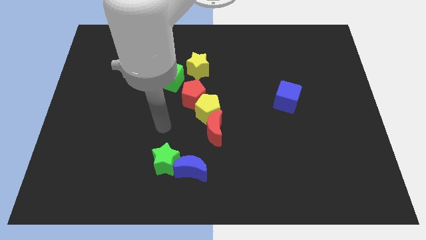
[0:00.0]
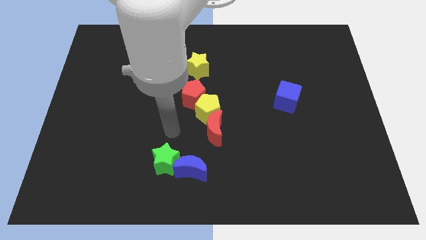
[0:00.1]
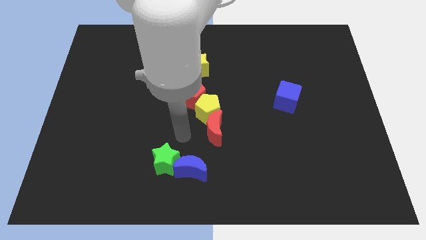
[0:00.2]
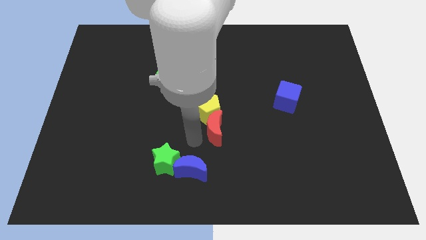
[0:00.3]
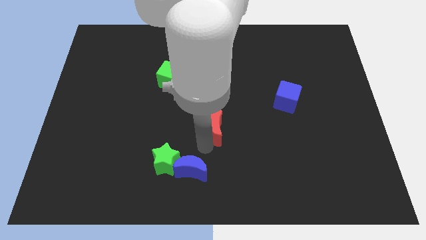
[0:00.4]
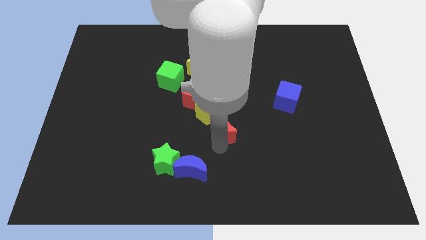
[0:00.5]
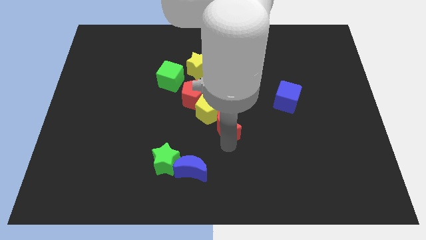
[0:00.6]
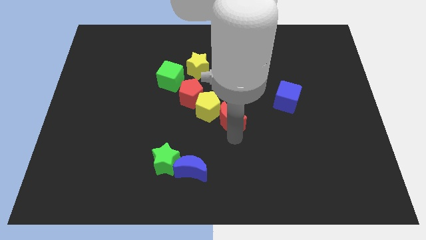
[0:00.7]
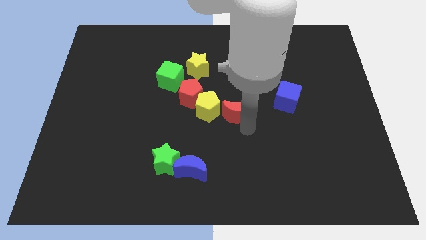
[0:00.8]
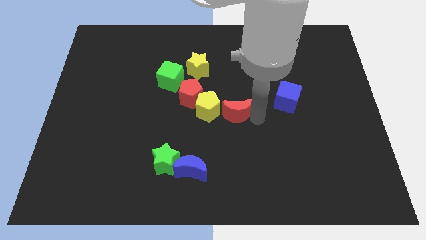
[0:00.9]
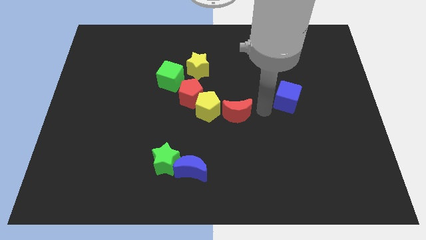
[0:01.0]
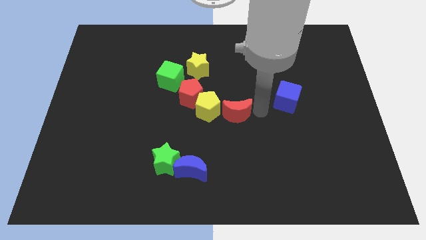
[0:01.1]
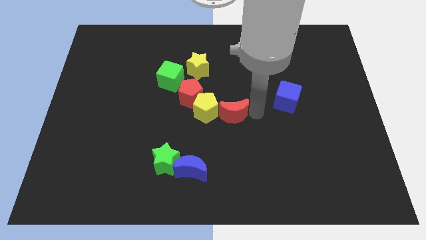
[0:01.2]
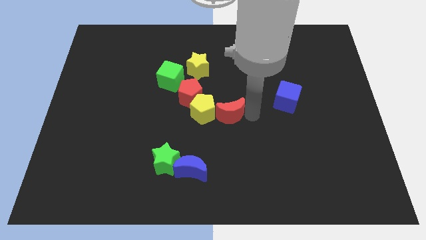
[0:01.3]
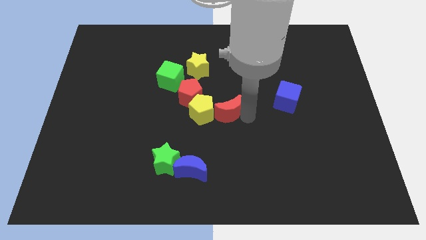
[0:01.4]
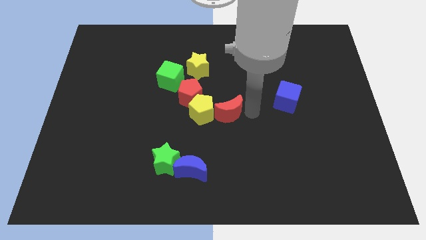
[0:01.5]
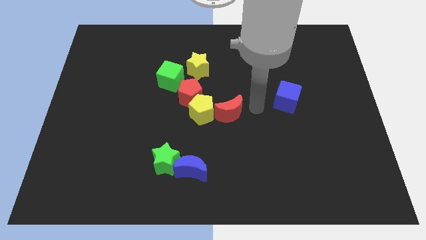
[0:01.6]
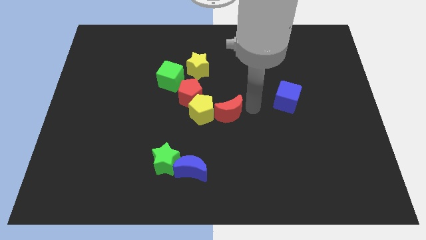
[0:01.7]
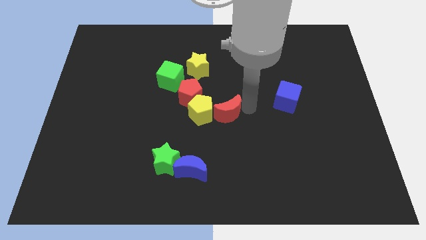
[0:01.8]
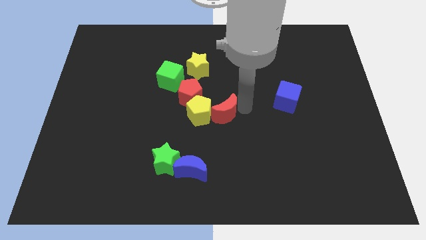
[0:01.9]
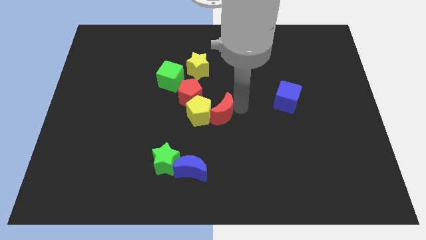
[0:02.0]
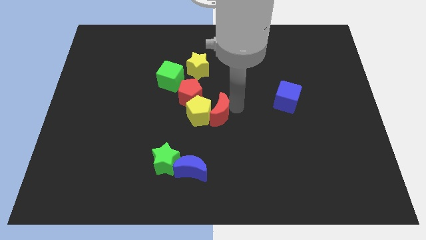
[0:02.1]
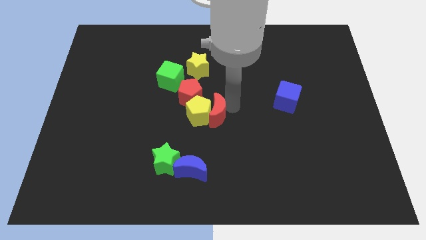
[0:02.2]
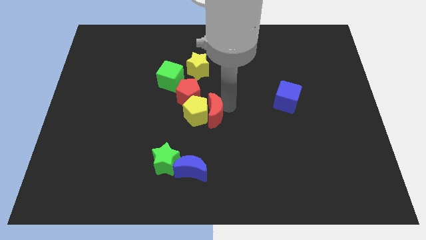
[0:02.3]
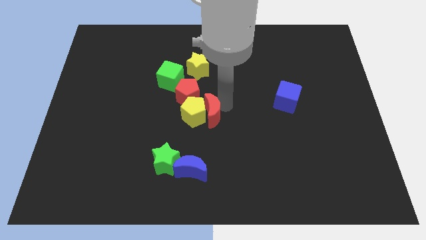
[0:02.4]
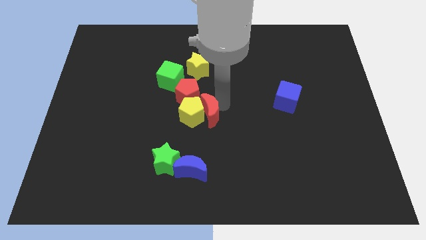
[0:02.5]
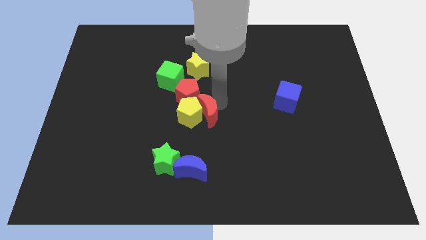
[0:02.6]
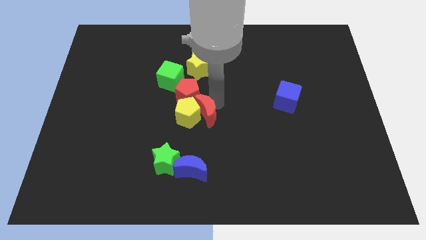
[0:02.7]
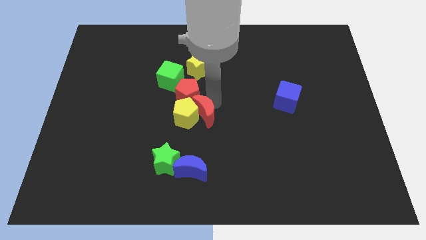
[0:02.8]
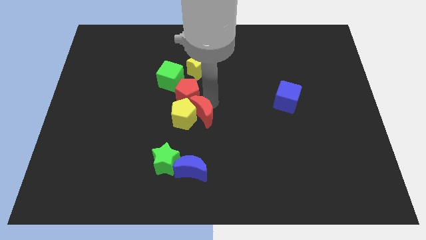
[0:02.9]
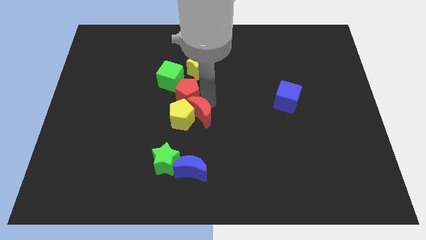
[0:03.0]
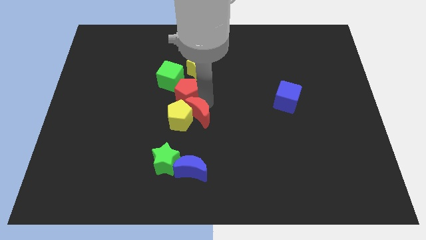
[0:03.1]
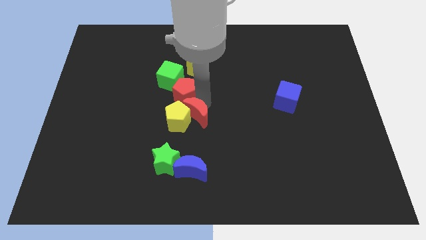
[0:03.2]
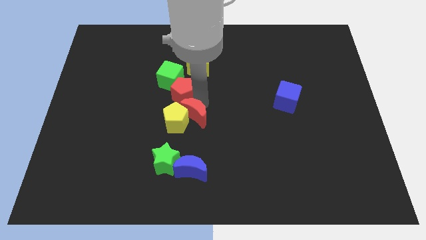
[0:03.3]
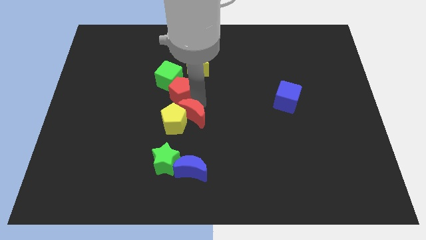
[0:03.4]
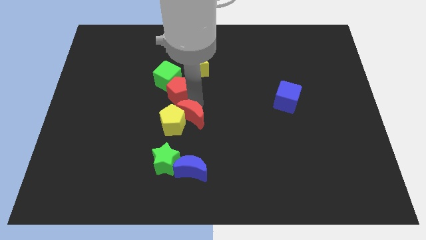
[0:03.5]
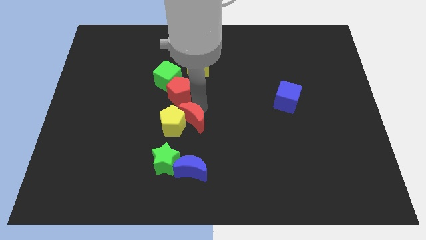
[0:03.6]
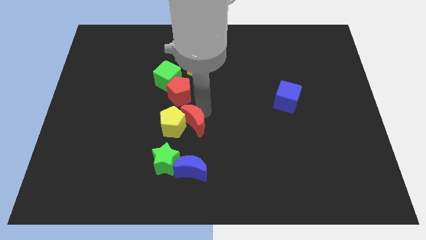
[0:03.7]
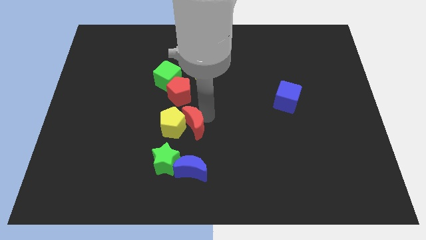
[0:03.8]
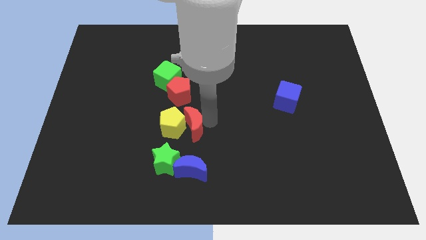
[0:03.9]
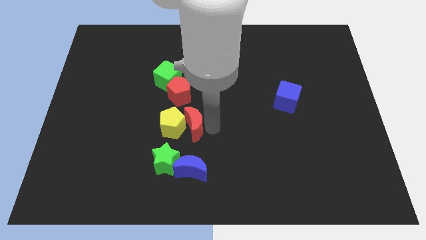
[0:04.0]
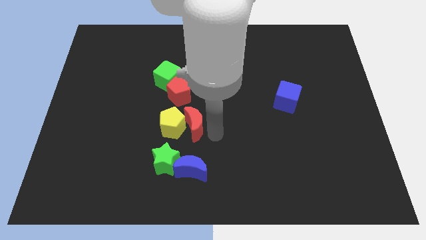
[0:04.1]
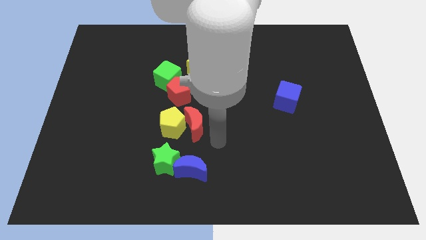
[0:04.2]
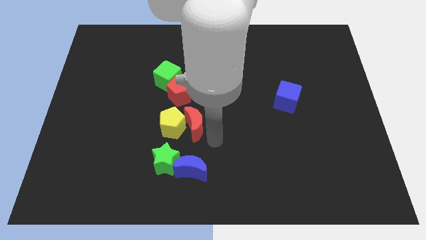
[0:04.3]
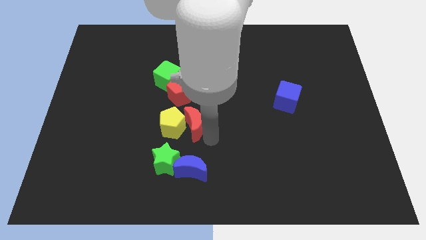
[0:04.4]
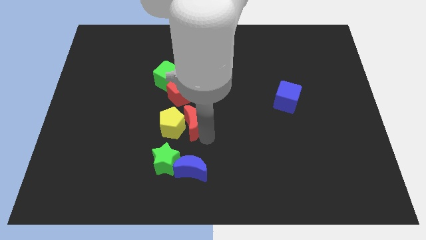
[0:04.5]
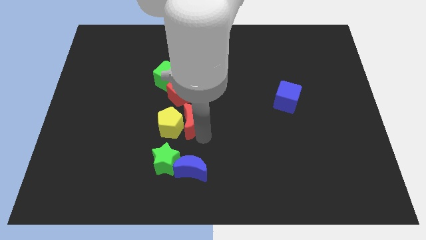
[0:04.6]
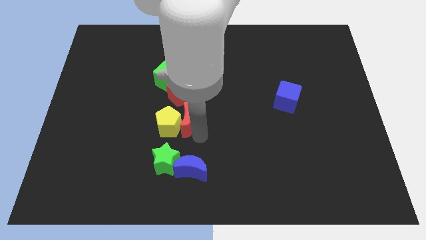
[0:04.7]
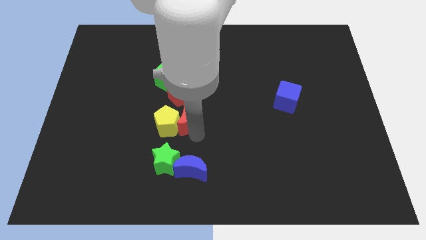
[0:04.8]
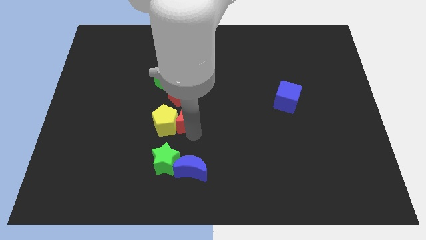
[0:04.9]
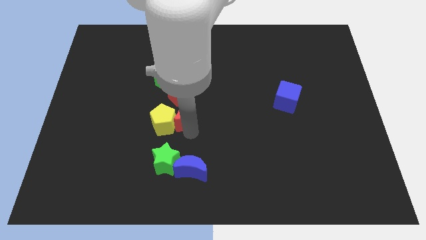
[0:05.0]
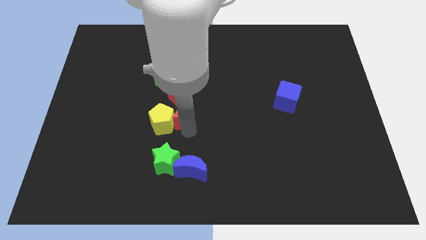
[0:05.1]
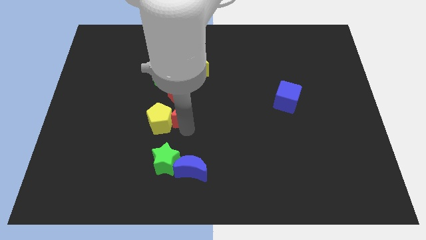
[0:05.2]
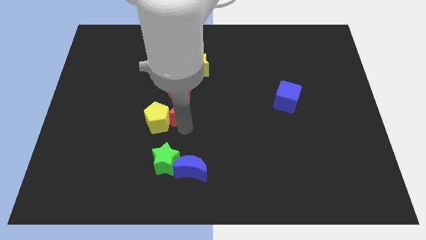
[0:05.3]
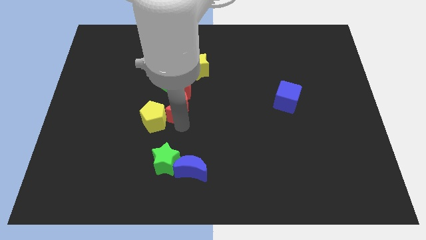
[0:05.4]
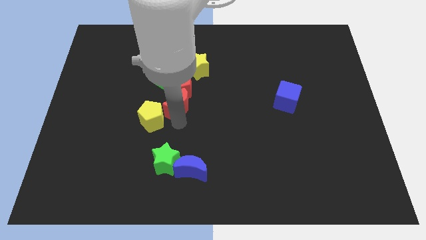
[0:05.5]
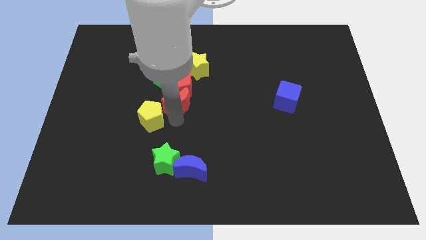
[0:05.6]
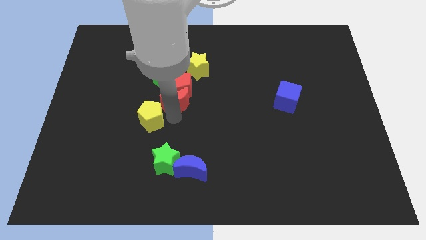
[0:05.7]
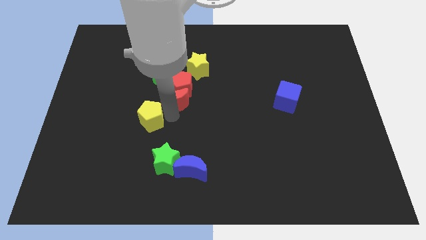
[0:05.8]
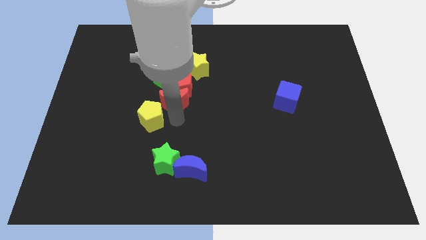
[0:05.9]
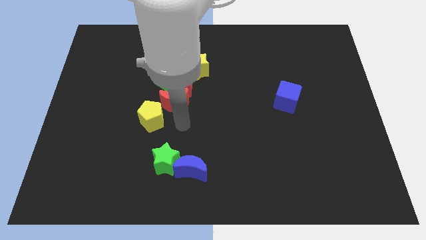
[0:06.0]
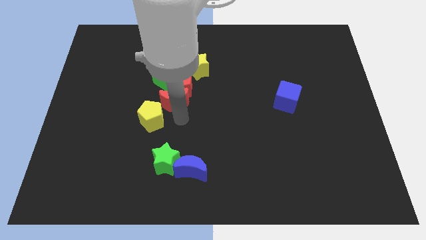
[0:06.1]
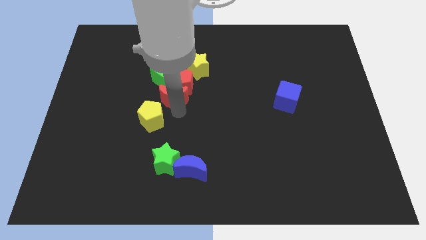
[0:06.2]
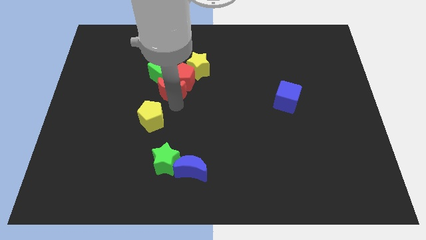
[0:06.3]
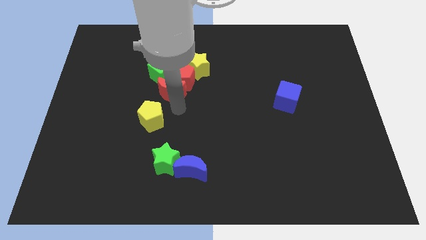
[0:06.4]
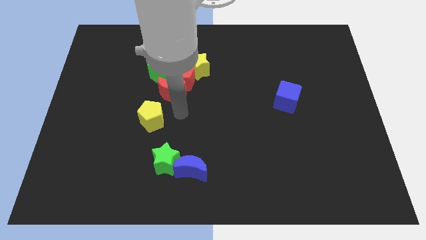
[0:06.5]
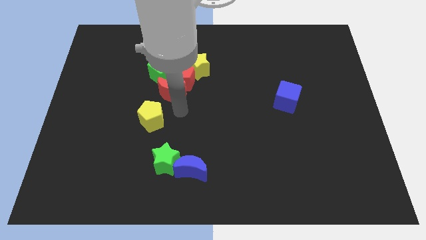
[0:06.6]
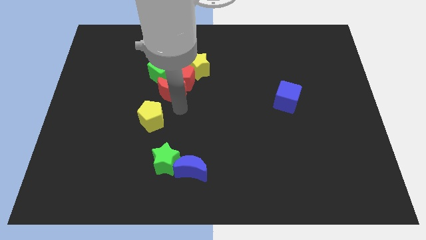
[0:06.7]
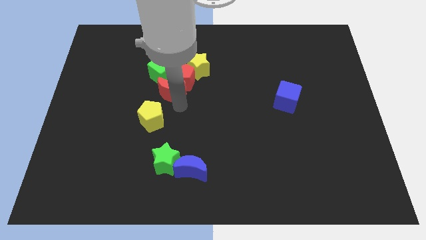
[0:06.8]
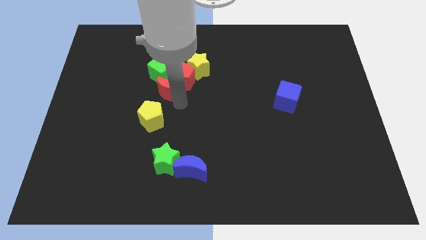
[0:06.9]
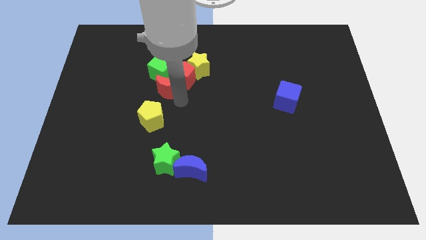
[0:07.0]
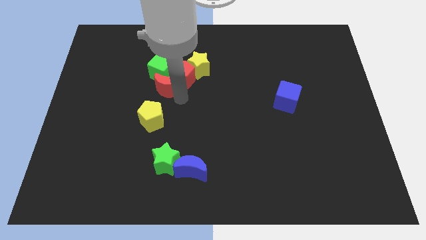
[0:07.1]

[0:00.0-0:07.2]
slide the red moon towards the green cube
